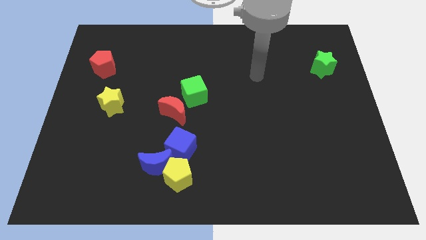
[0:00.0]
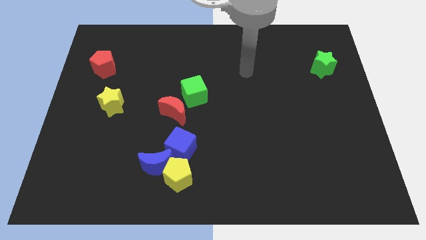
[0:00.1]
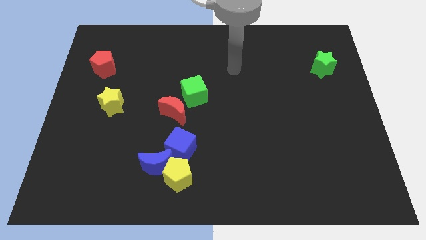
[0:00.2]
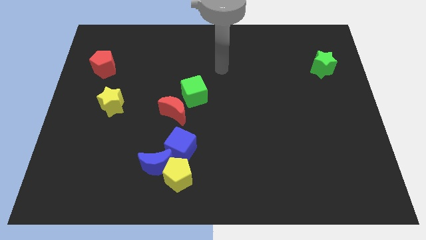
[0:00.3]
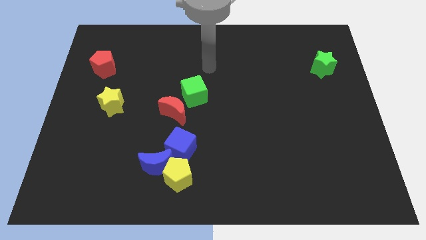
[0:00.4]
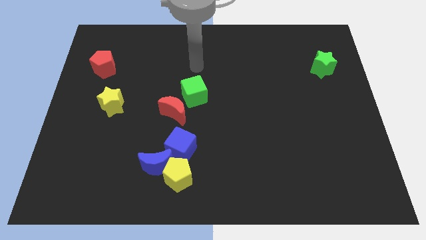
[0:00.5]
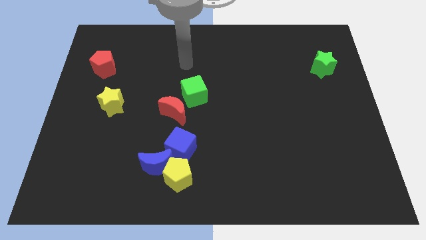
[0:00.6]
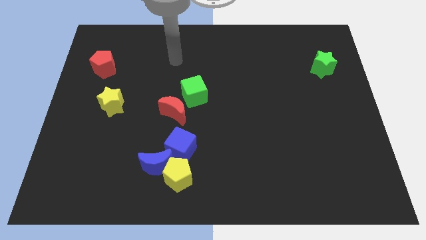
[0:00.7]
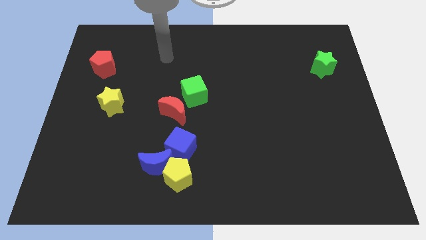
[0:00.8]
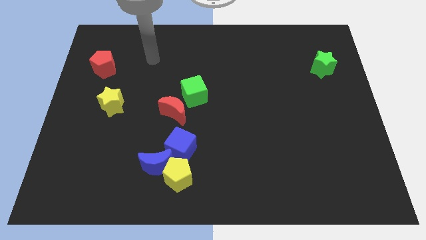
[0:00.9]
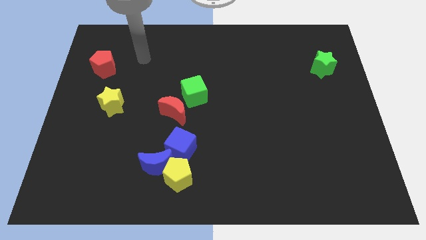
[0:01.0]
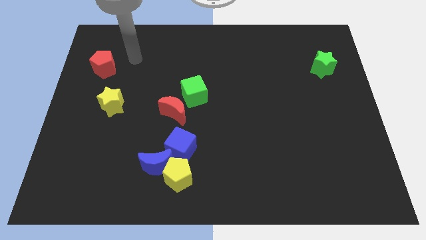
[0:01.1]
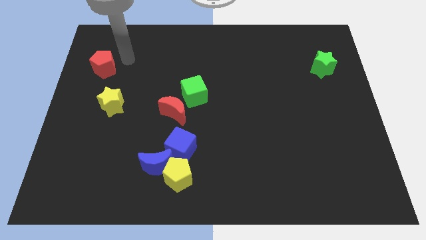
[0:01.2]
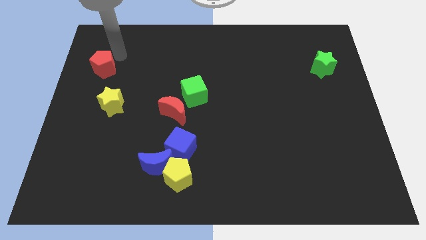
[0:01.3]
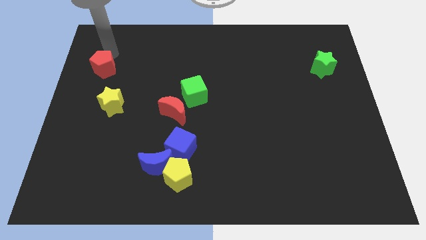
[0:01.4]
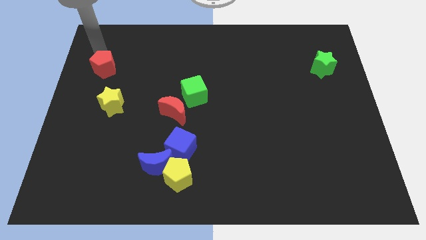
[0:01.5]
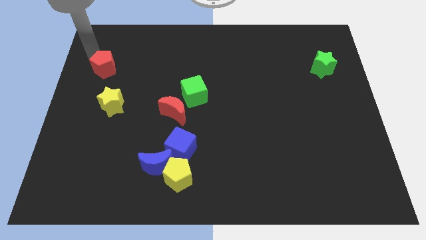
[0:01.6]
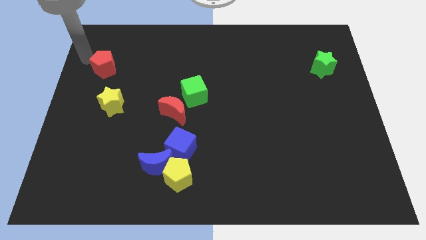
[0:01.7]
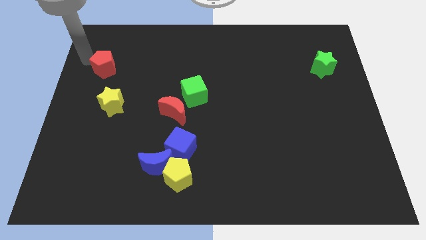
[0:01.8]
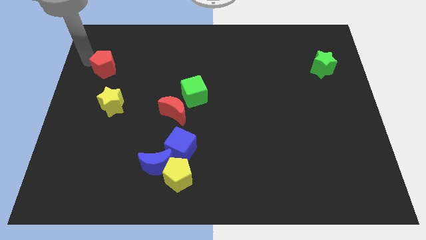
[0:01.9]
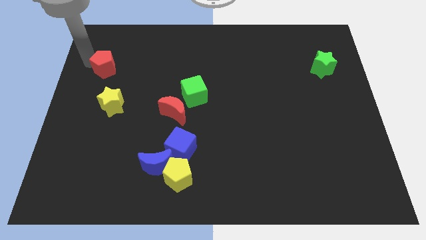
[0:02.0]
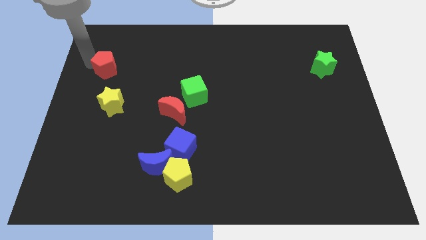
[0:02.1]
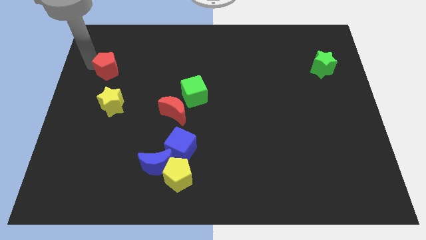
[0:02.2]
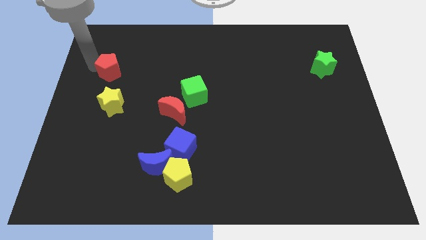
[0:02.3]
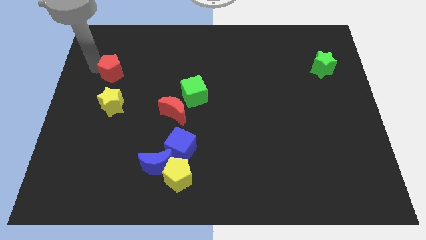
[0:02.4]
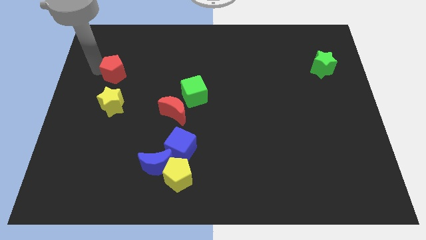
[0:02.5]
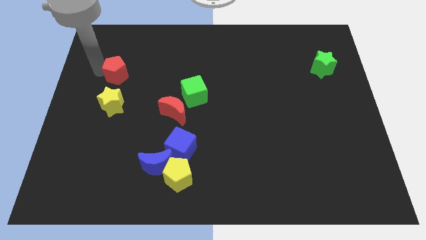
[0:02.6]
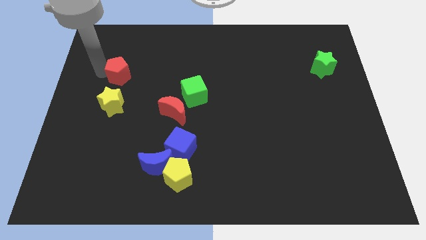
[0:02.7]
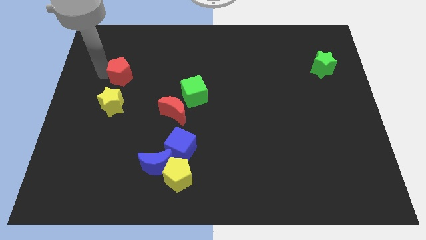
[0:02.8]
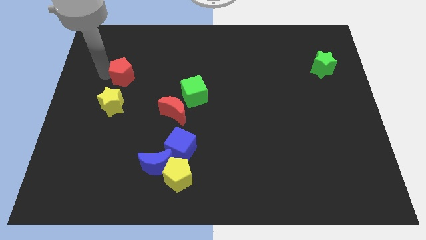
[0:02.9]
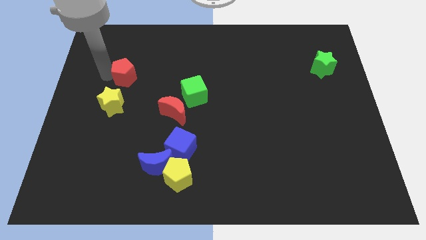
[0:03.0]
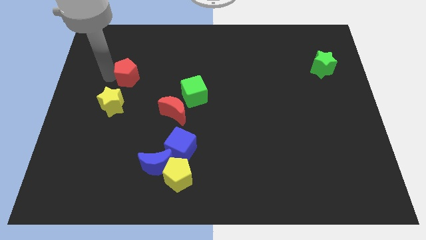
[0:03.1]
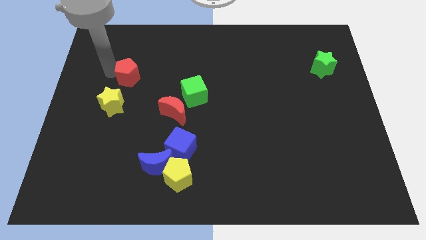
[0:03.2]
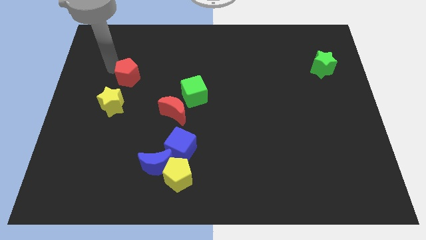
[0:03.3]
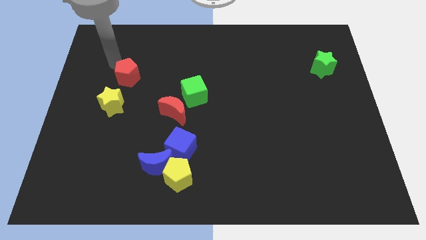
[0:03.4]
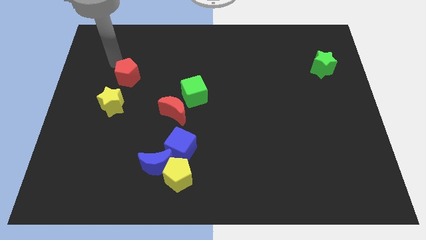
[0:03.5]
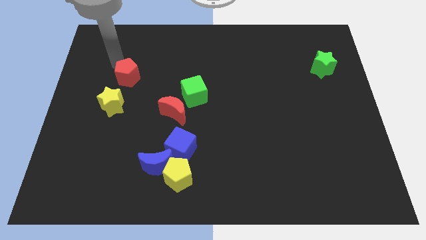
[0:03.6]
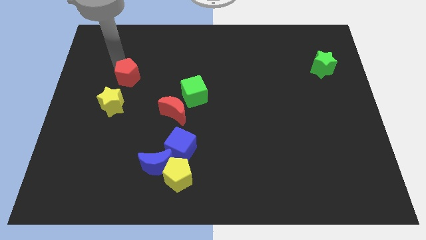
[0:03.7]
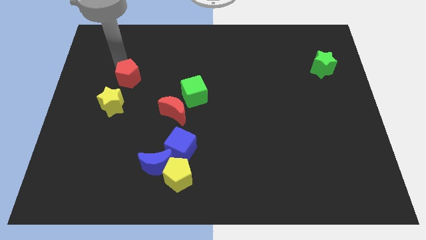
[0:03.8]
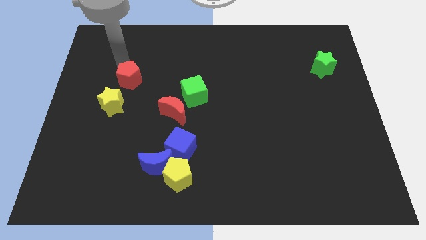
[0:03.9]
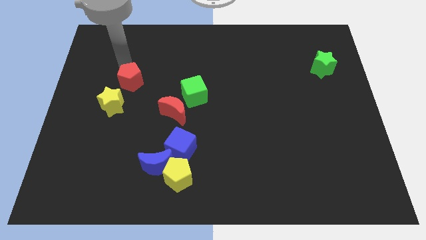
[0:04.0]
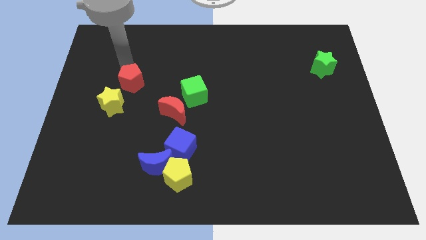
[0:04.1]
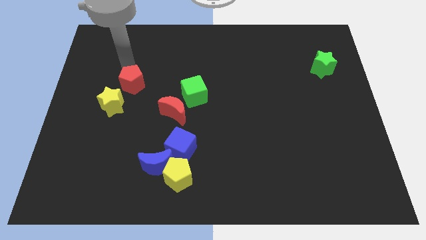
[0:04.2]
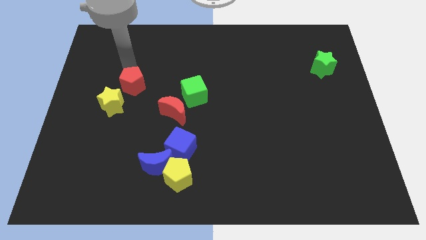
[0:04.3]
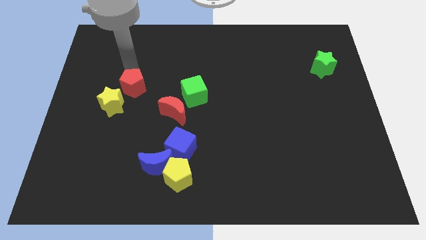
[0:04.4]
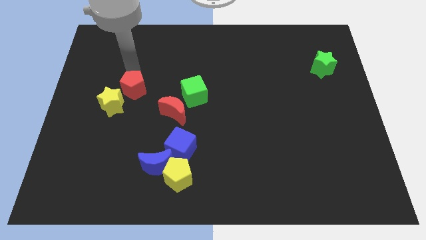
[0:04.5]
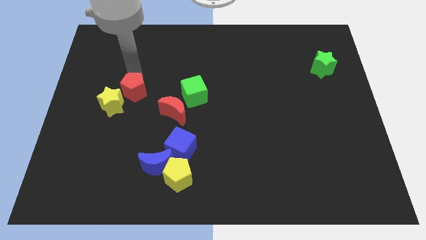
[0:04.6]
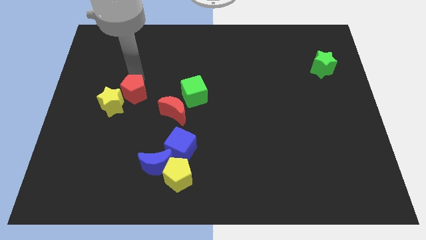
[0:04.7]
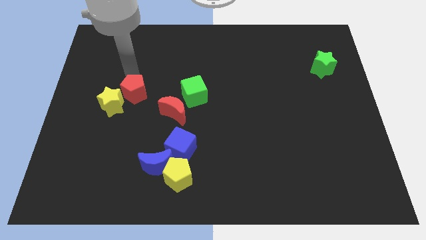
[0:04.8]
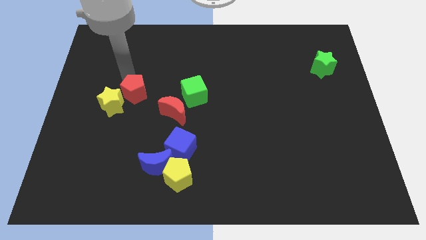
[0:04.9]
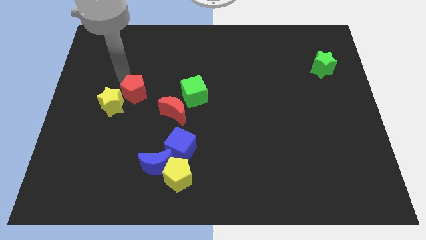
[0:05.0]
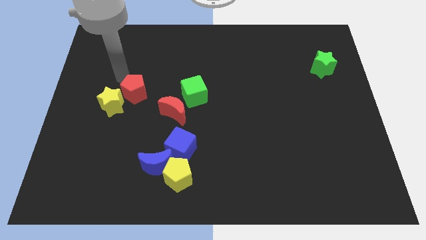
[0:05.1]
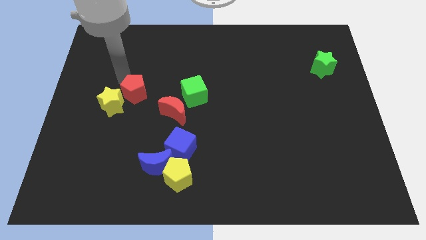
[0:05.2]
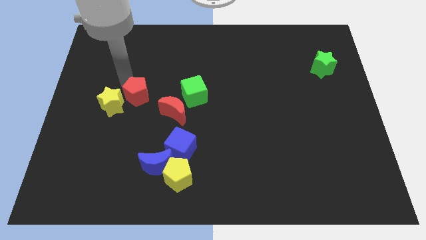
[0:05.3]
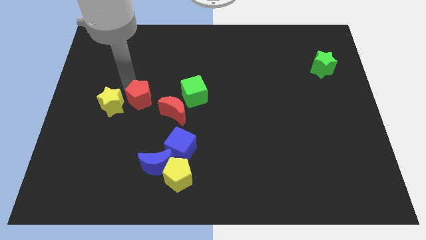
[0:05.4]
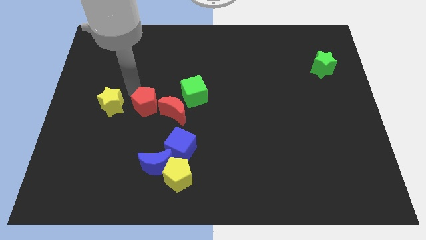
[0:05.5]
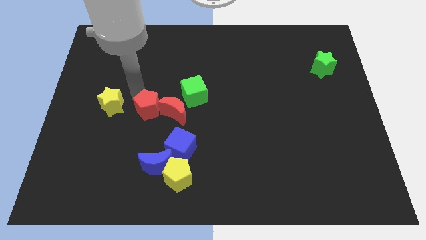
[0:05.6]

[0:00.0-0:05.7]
push the red pentagon above the blue moon

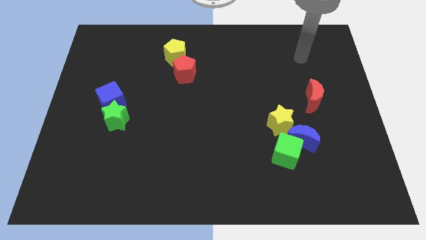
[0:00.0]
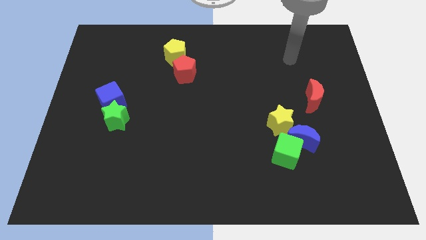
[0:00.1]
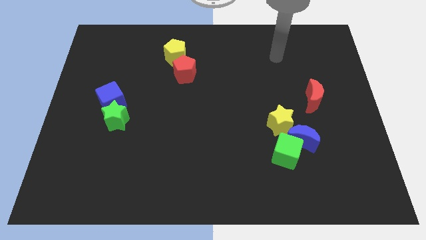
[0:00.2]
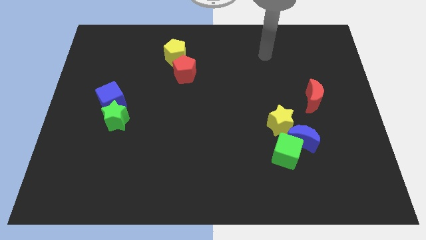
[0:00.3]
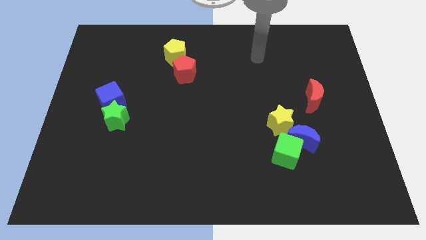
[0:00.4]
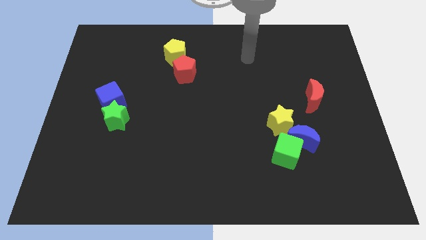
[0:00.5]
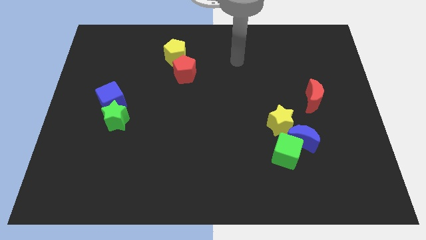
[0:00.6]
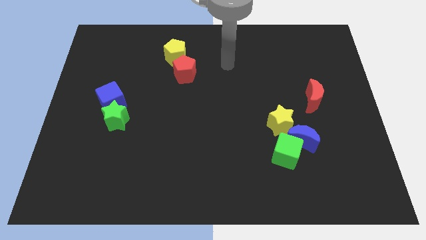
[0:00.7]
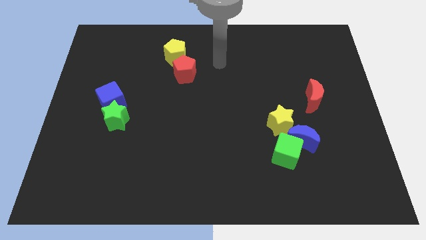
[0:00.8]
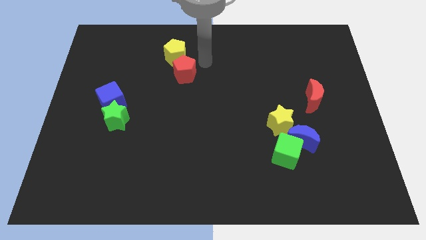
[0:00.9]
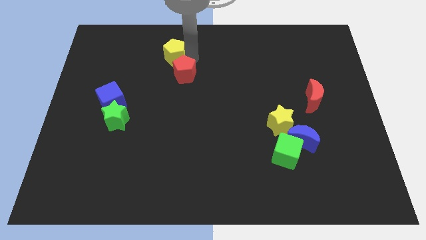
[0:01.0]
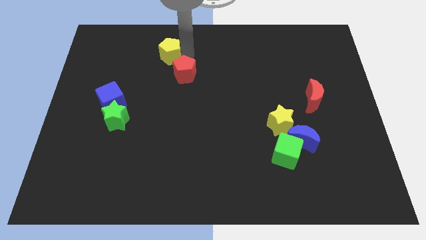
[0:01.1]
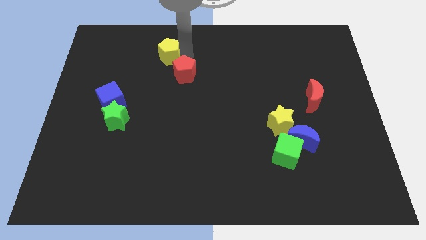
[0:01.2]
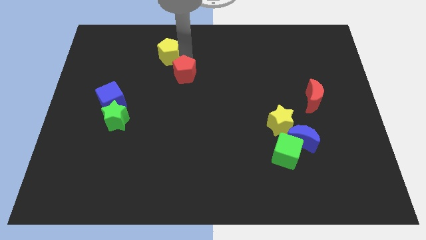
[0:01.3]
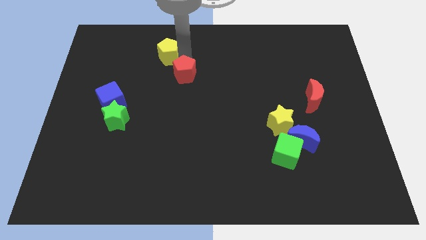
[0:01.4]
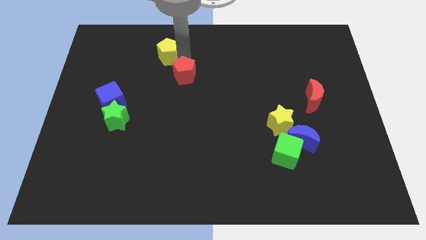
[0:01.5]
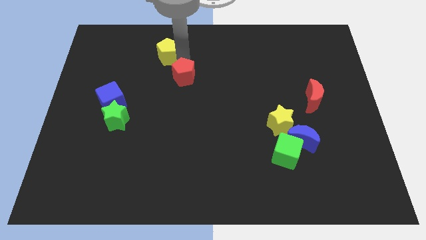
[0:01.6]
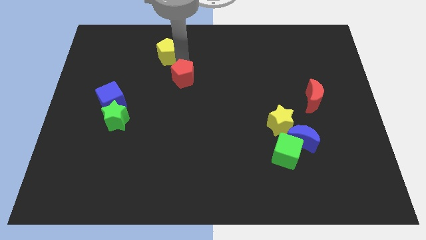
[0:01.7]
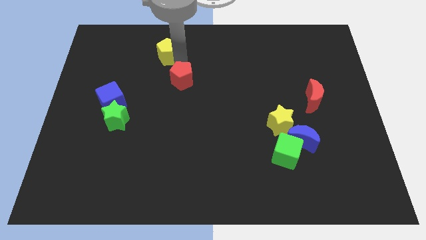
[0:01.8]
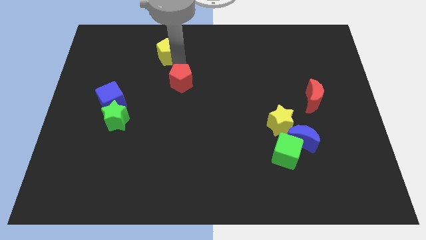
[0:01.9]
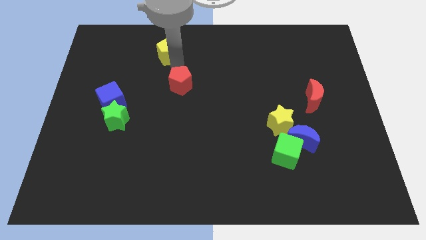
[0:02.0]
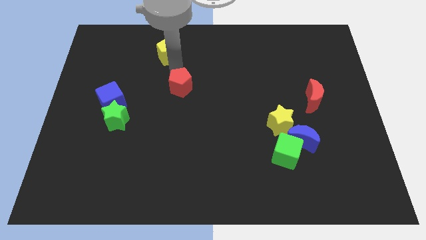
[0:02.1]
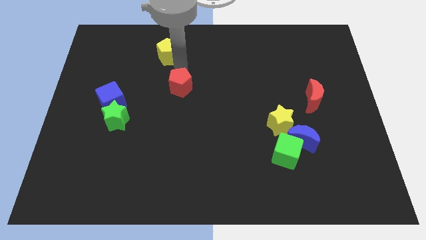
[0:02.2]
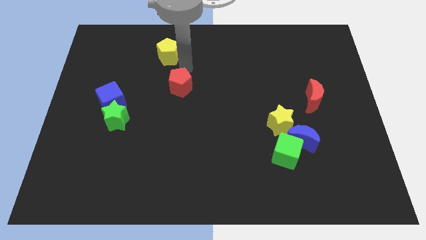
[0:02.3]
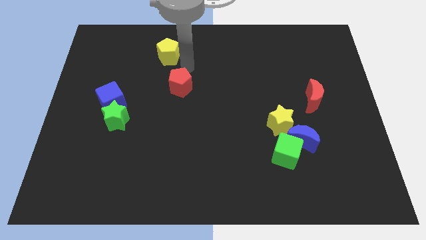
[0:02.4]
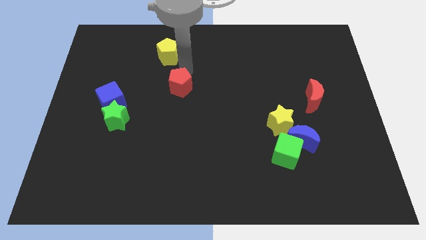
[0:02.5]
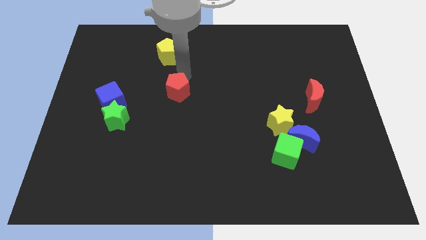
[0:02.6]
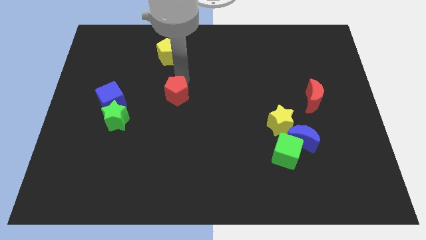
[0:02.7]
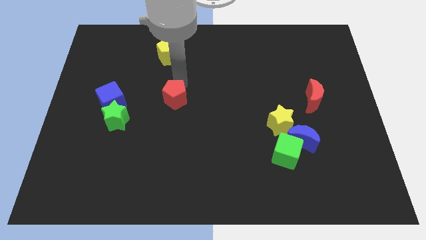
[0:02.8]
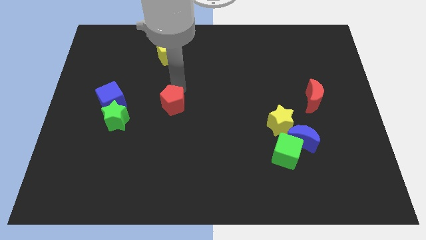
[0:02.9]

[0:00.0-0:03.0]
put the red pentagon just right of the green star
